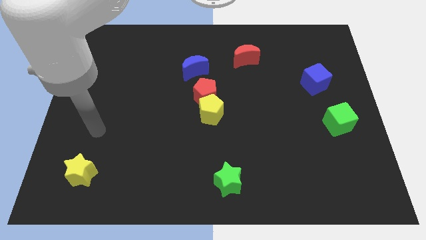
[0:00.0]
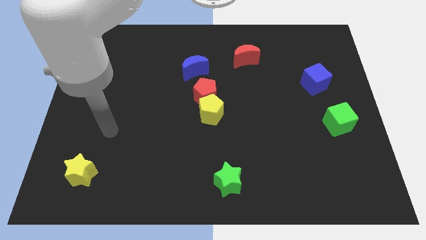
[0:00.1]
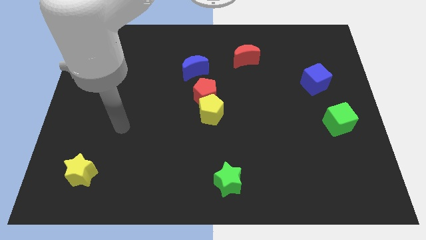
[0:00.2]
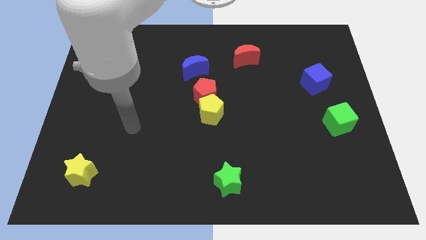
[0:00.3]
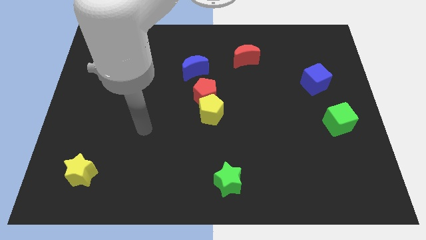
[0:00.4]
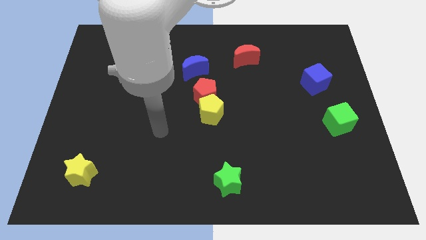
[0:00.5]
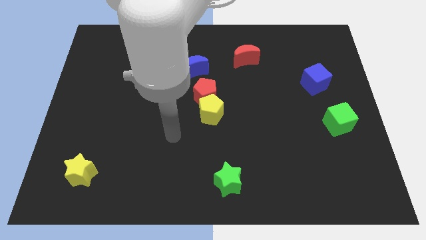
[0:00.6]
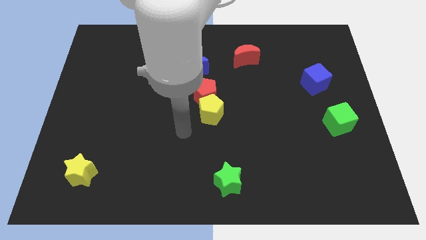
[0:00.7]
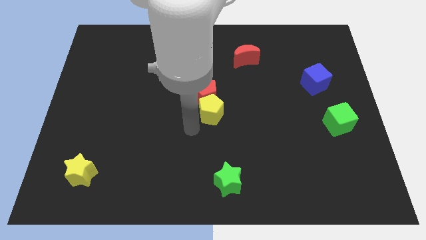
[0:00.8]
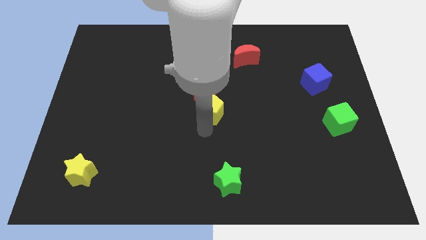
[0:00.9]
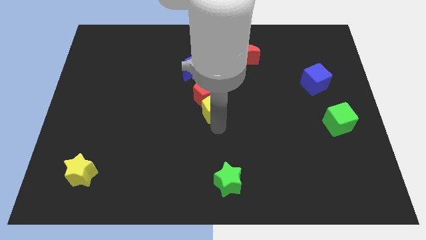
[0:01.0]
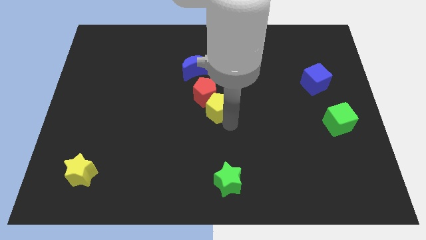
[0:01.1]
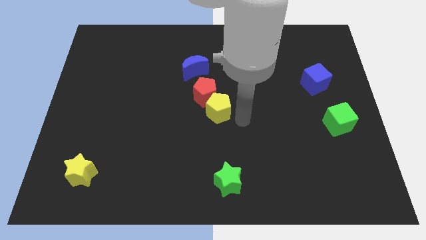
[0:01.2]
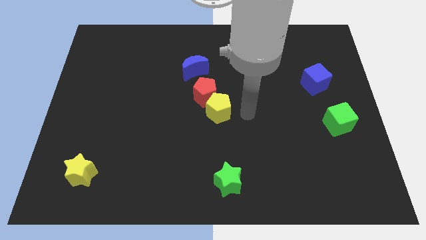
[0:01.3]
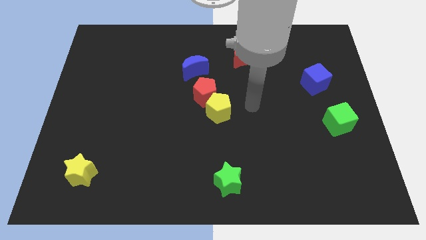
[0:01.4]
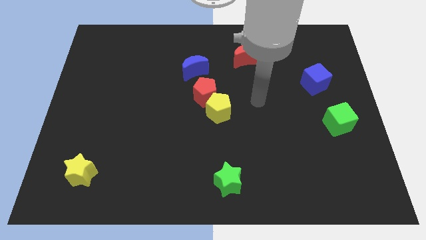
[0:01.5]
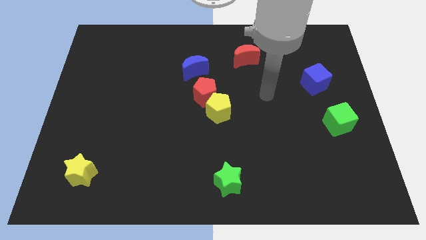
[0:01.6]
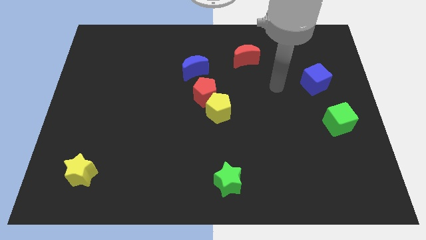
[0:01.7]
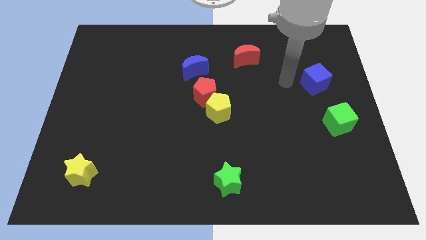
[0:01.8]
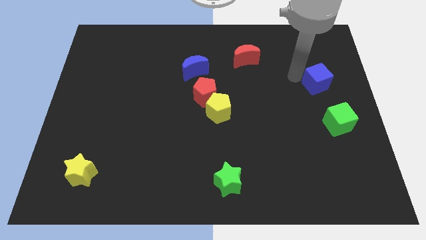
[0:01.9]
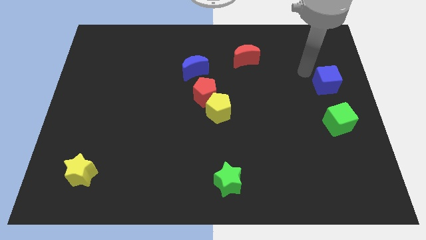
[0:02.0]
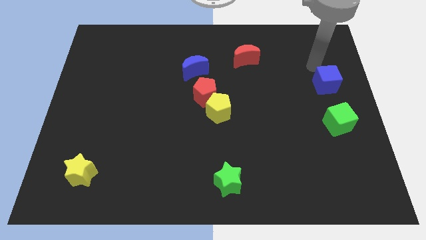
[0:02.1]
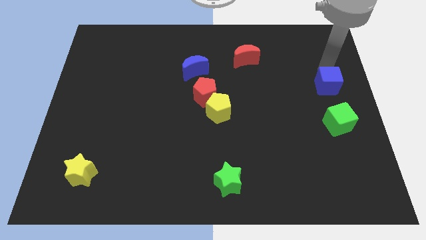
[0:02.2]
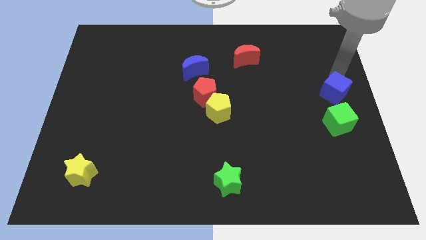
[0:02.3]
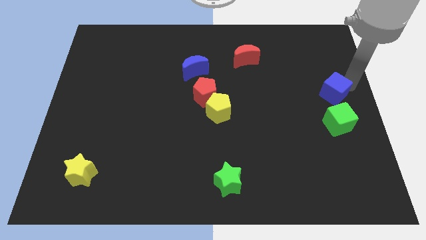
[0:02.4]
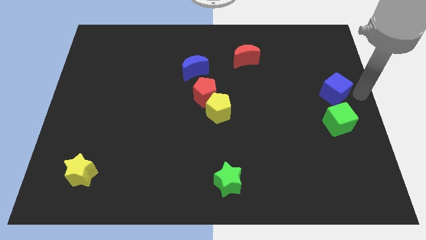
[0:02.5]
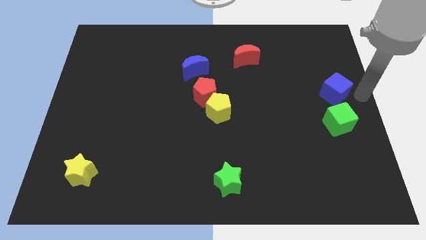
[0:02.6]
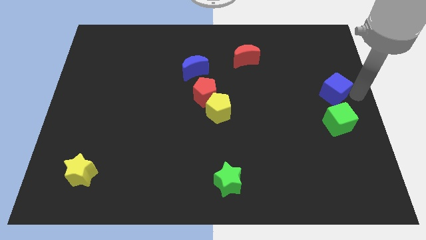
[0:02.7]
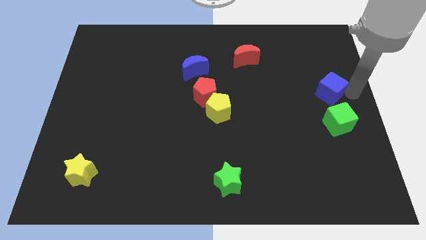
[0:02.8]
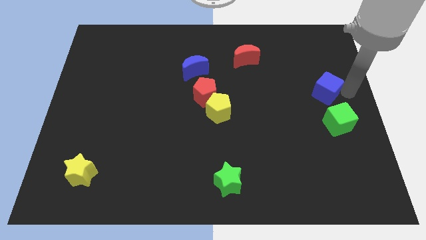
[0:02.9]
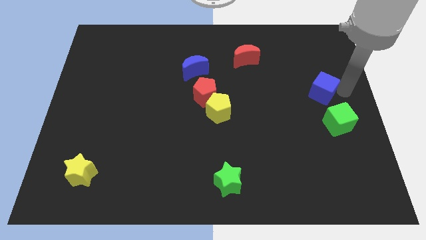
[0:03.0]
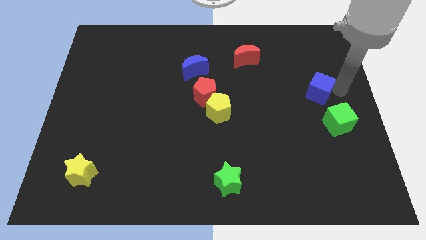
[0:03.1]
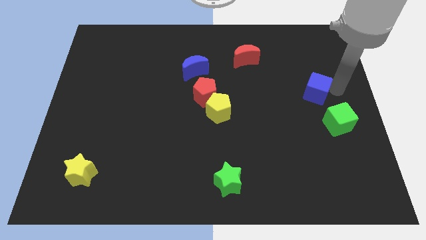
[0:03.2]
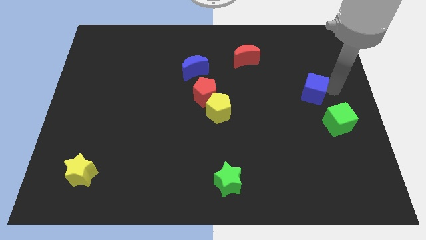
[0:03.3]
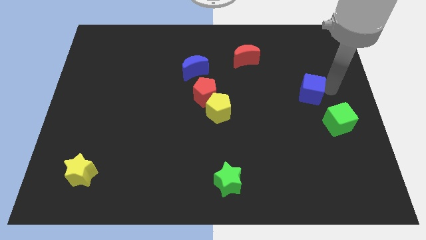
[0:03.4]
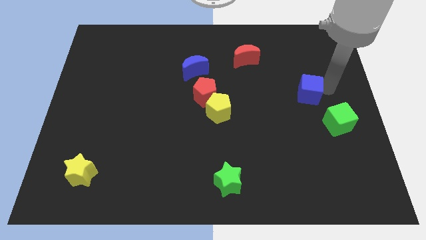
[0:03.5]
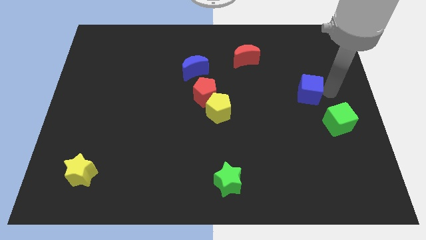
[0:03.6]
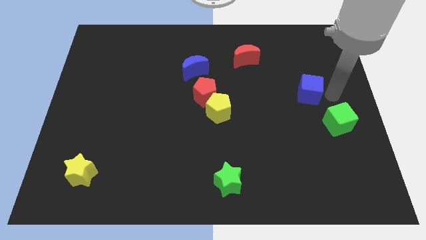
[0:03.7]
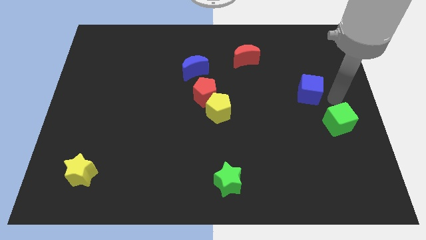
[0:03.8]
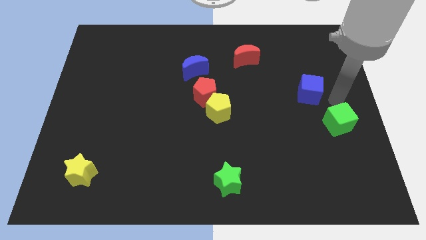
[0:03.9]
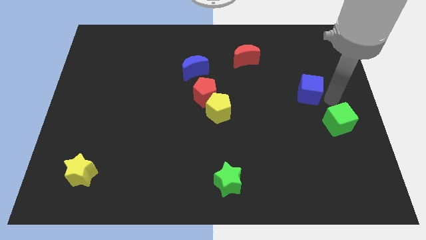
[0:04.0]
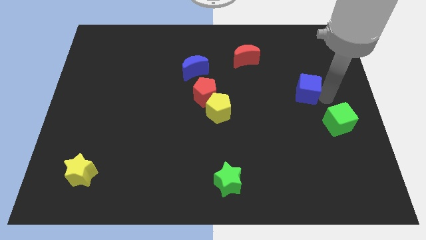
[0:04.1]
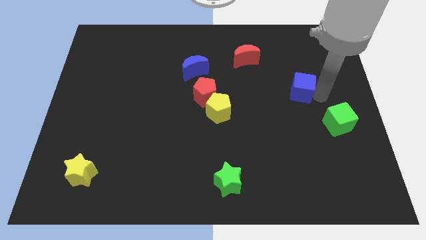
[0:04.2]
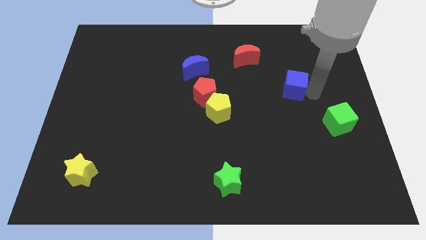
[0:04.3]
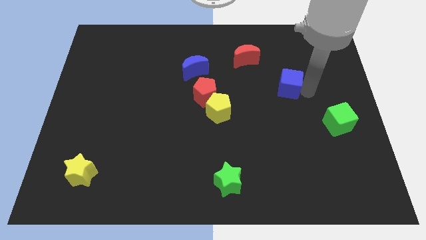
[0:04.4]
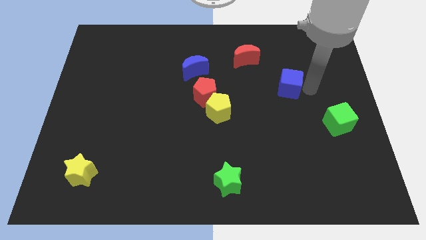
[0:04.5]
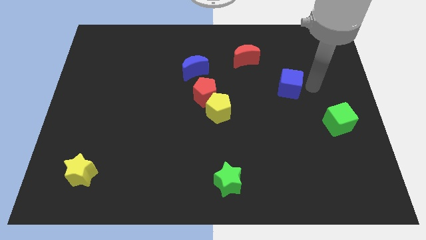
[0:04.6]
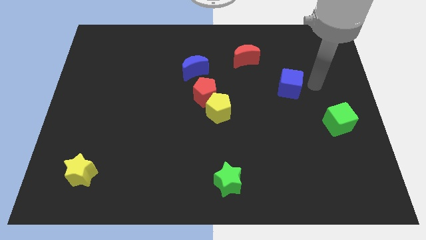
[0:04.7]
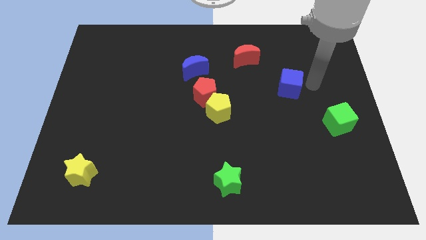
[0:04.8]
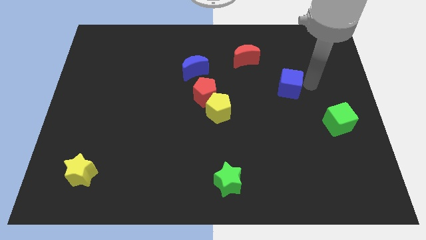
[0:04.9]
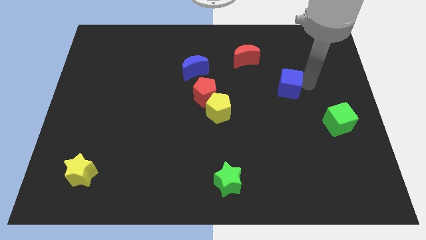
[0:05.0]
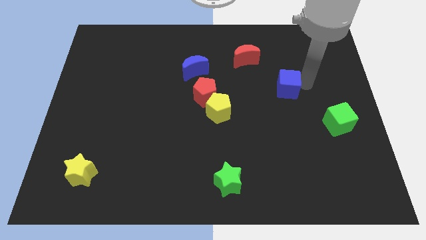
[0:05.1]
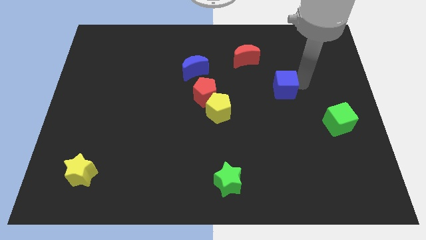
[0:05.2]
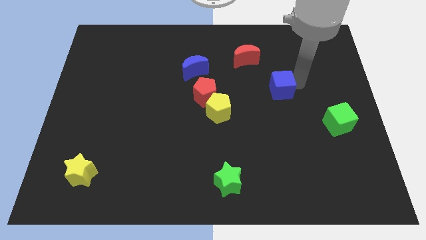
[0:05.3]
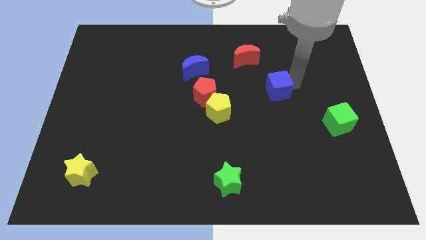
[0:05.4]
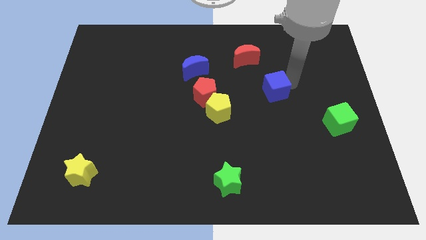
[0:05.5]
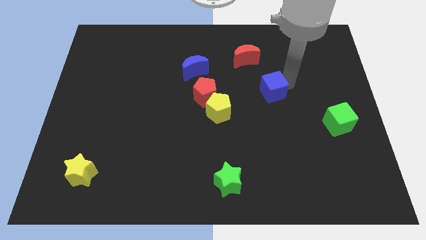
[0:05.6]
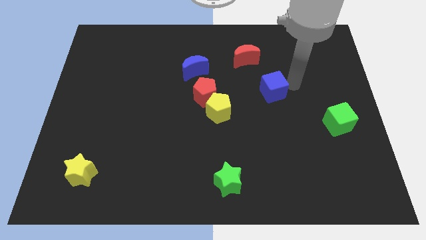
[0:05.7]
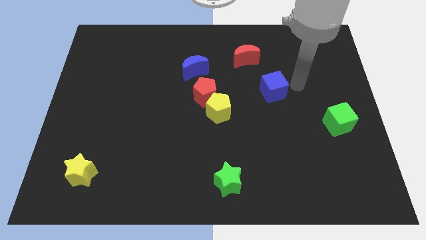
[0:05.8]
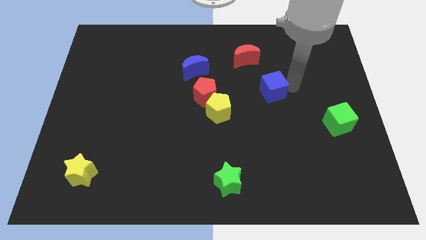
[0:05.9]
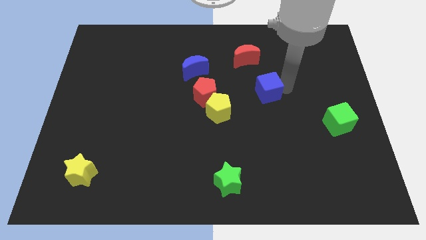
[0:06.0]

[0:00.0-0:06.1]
slide the blue cube to the right side of the red pentagon
